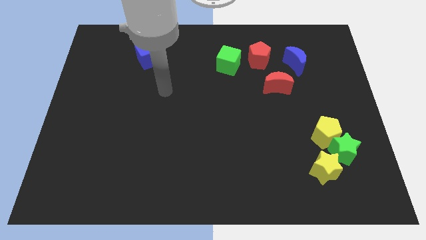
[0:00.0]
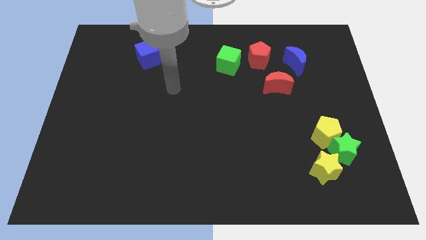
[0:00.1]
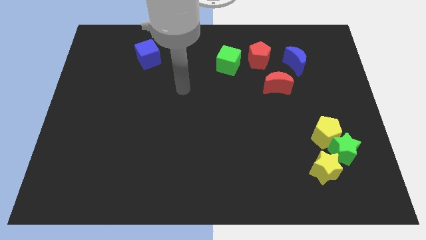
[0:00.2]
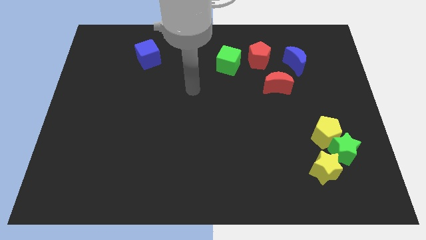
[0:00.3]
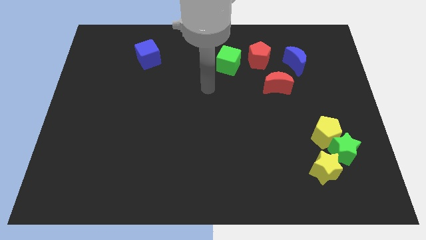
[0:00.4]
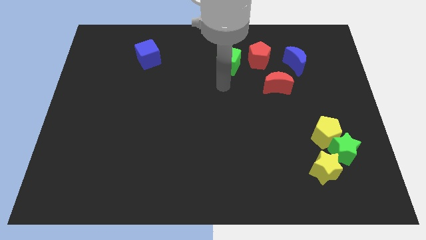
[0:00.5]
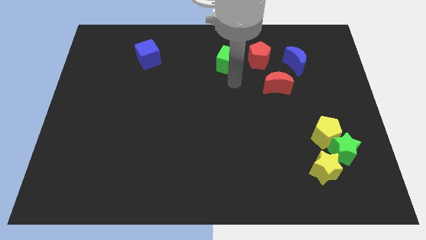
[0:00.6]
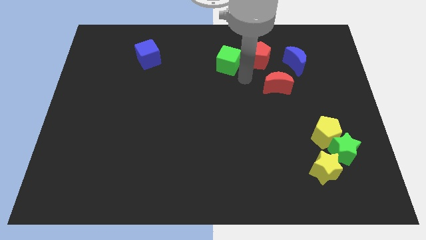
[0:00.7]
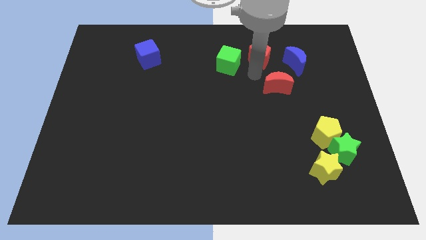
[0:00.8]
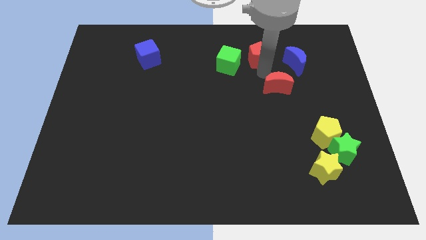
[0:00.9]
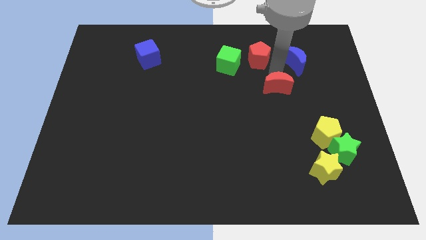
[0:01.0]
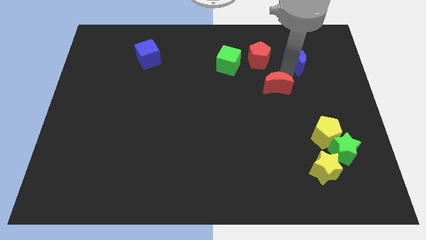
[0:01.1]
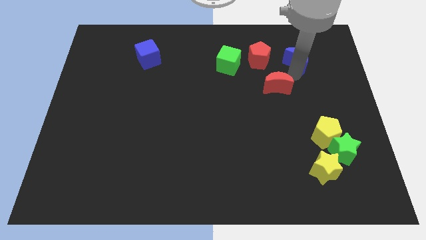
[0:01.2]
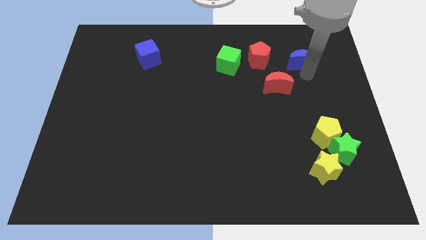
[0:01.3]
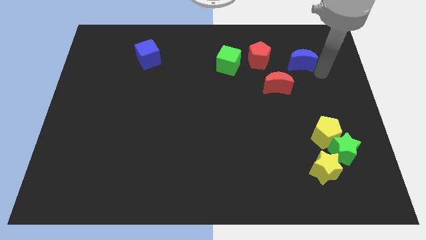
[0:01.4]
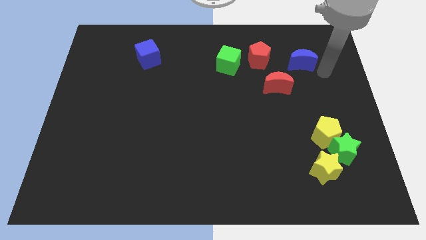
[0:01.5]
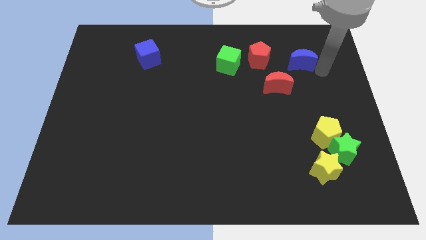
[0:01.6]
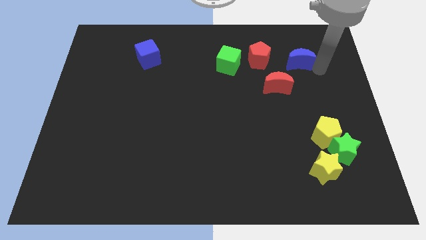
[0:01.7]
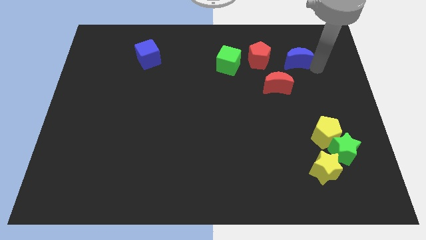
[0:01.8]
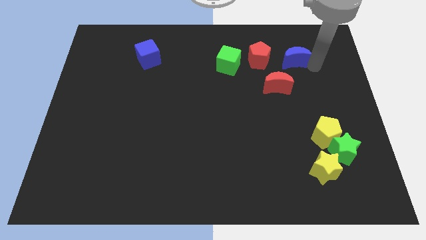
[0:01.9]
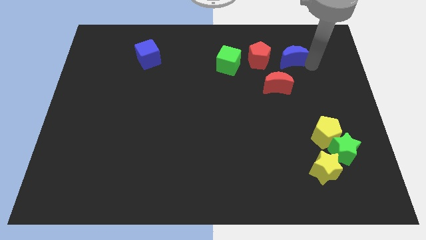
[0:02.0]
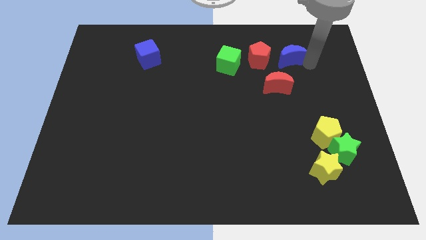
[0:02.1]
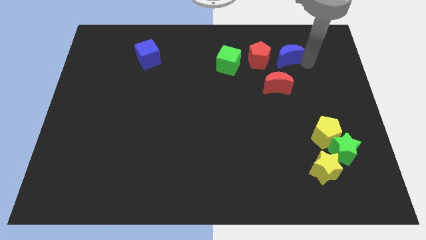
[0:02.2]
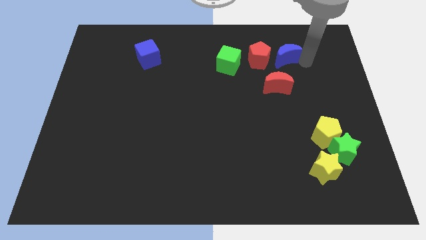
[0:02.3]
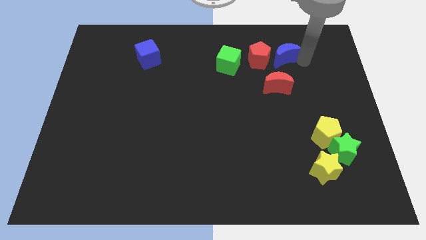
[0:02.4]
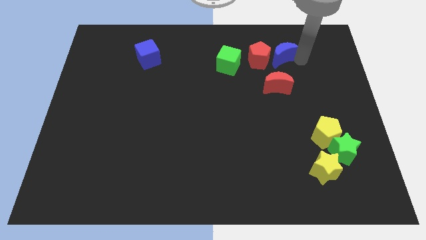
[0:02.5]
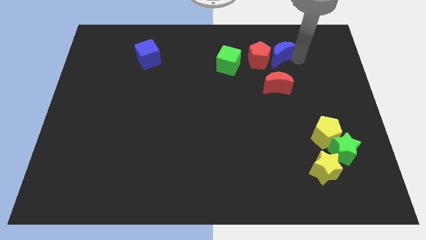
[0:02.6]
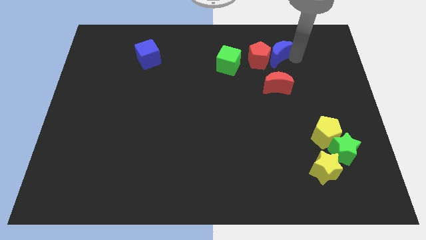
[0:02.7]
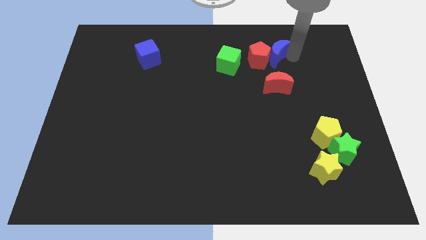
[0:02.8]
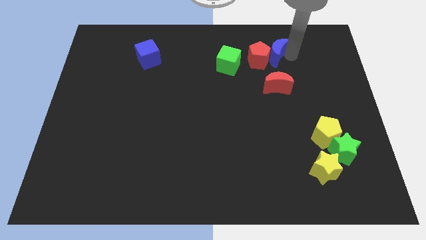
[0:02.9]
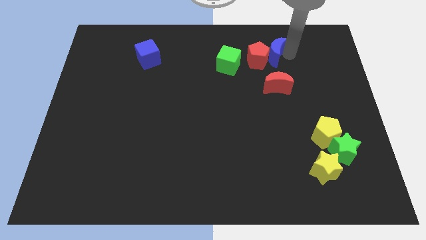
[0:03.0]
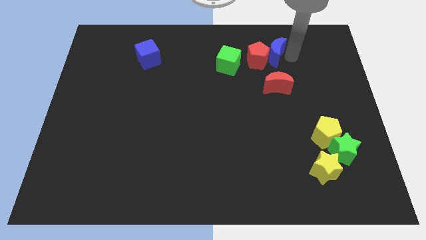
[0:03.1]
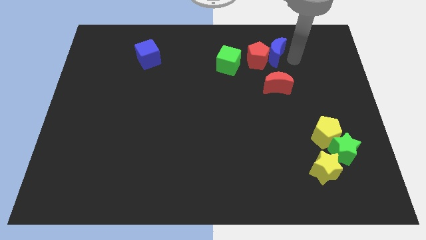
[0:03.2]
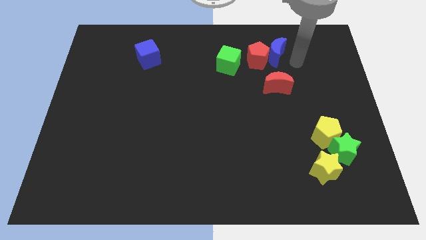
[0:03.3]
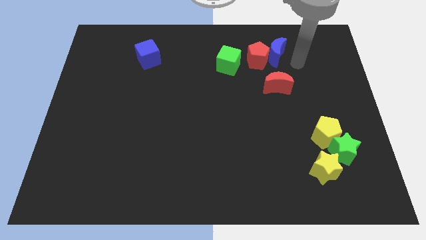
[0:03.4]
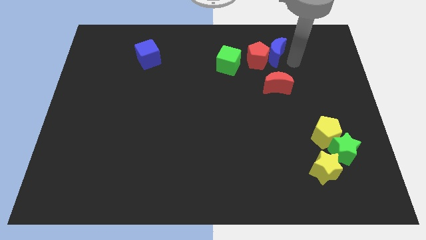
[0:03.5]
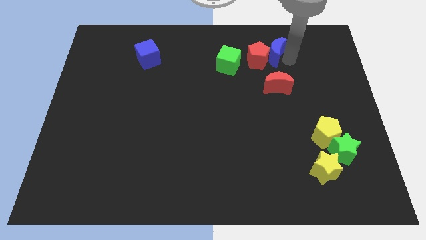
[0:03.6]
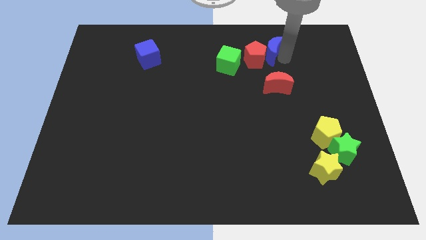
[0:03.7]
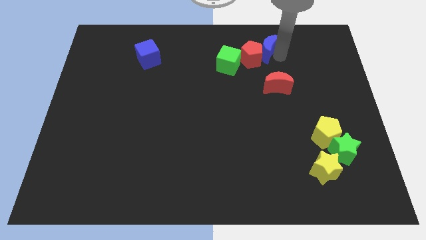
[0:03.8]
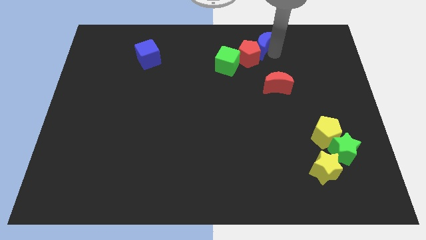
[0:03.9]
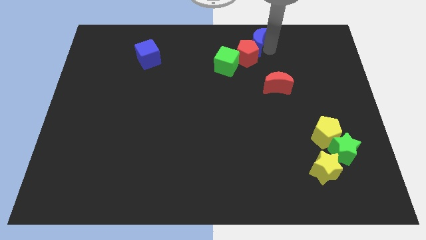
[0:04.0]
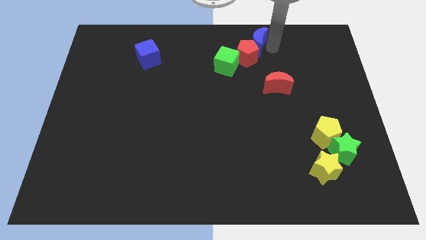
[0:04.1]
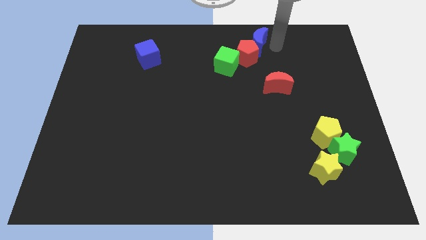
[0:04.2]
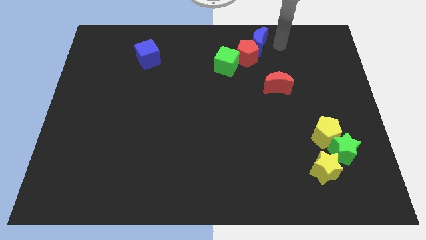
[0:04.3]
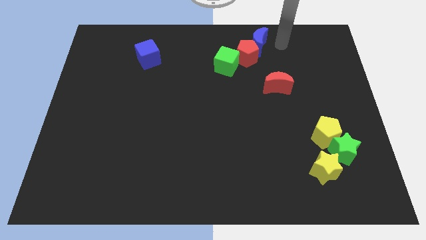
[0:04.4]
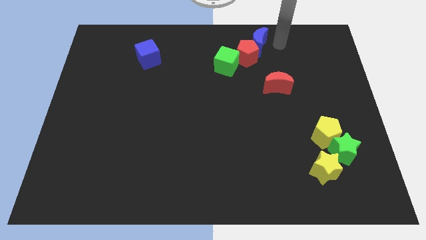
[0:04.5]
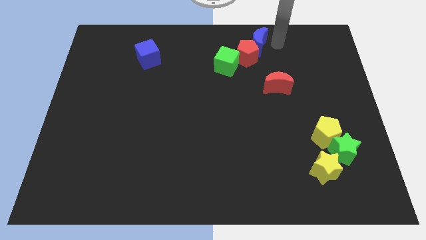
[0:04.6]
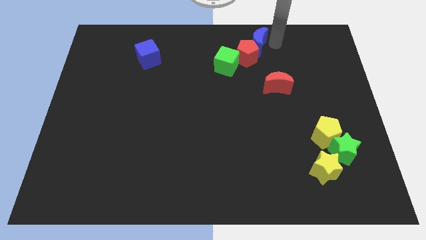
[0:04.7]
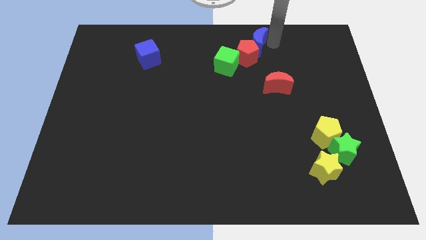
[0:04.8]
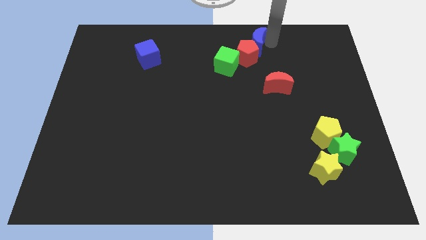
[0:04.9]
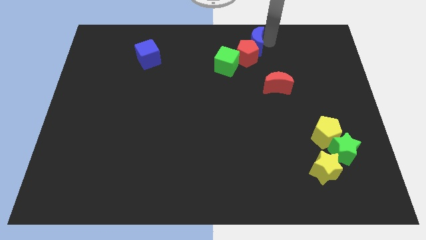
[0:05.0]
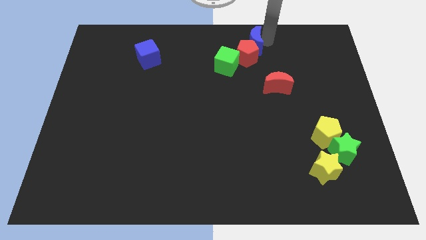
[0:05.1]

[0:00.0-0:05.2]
move the blue moon to the top side

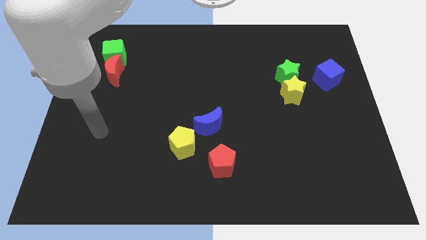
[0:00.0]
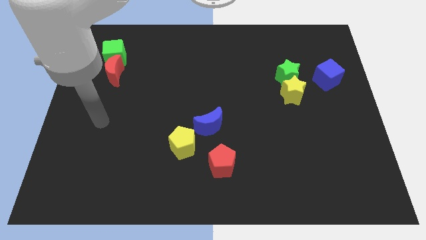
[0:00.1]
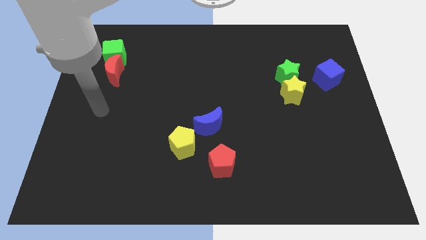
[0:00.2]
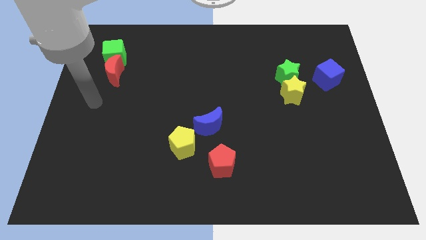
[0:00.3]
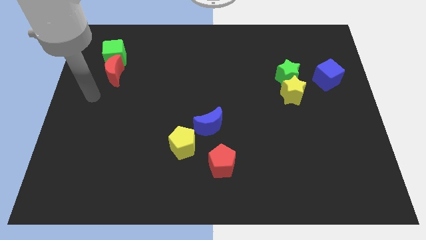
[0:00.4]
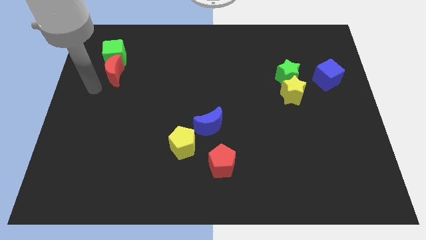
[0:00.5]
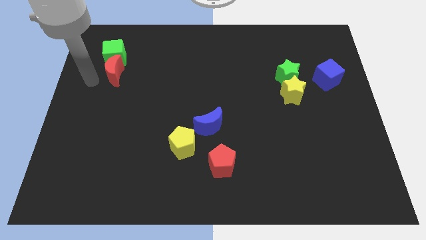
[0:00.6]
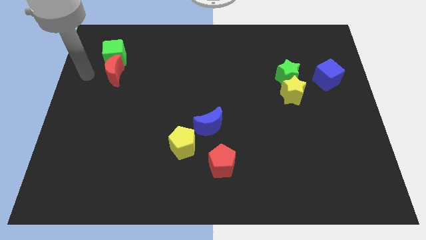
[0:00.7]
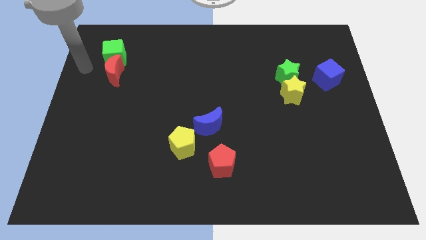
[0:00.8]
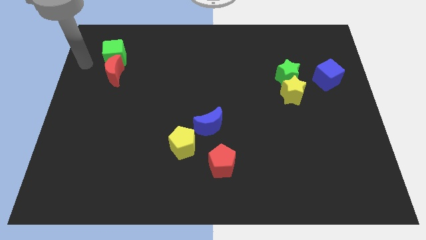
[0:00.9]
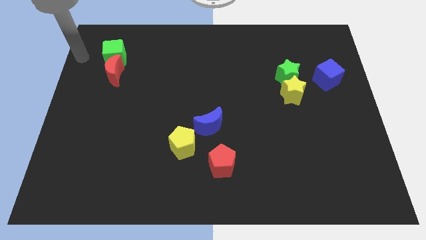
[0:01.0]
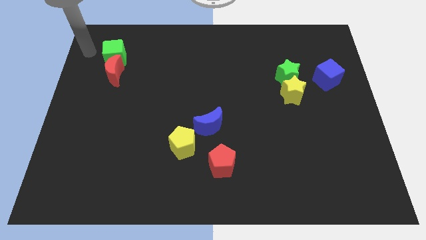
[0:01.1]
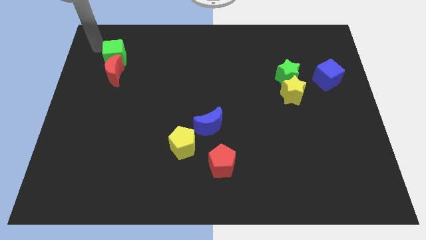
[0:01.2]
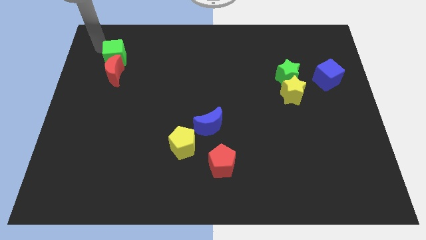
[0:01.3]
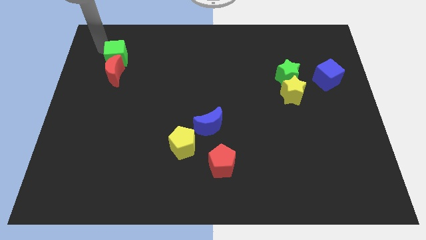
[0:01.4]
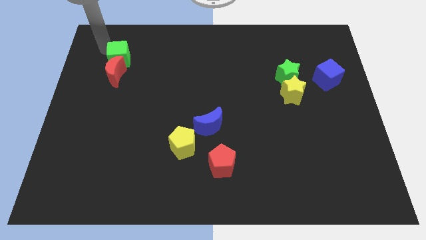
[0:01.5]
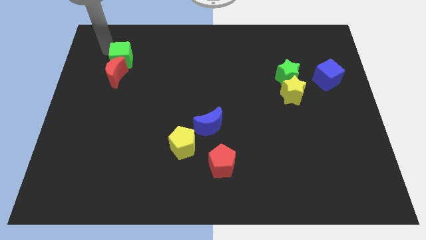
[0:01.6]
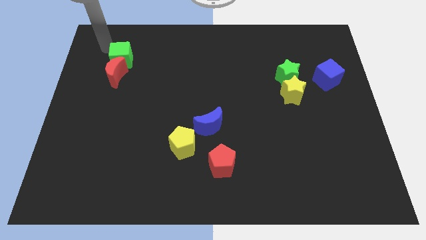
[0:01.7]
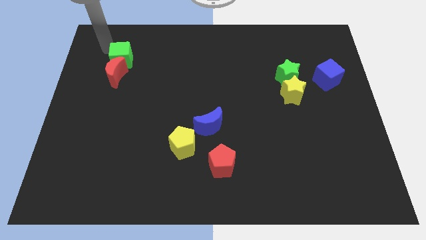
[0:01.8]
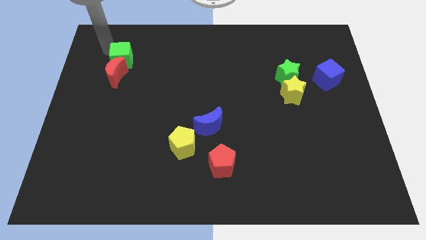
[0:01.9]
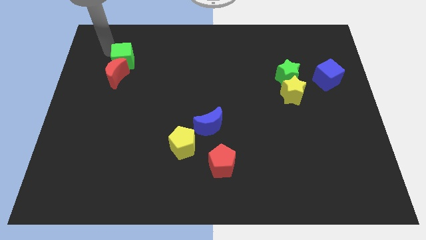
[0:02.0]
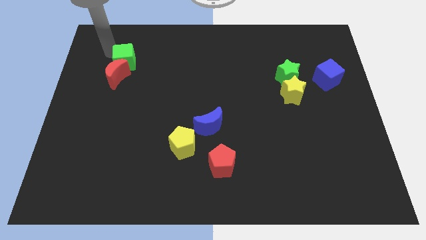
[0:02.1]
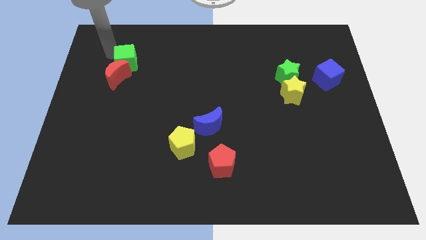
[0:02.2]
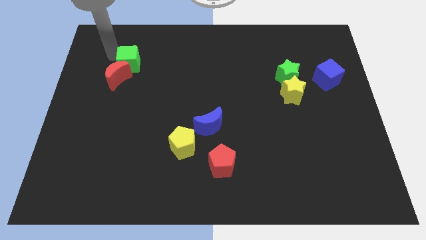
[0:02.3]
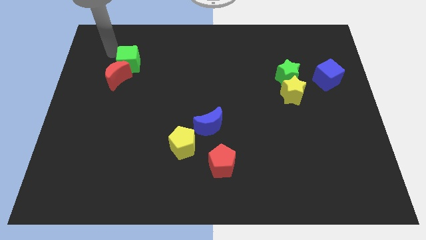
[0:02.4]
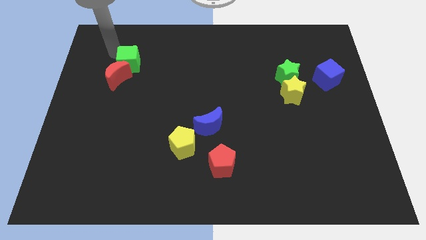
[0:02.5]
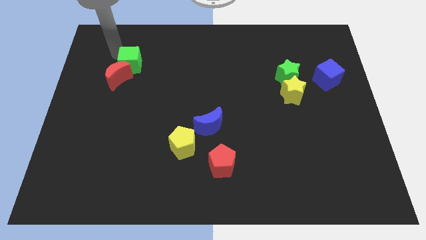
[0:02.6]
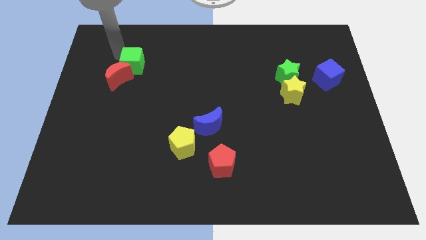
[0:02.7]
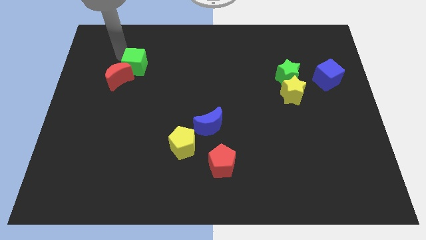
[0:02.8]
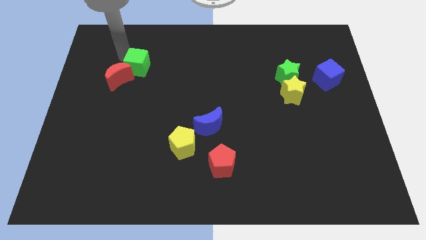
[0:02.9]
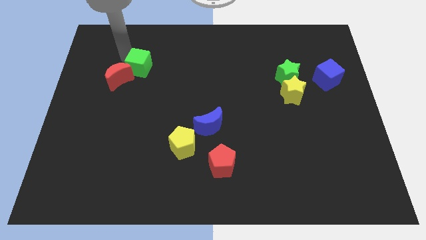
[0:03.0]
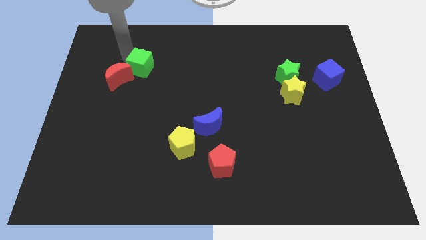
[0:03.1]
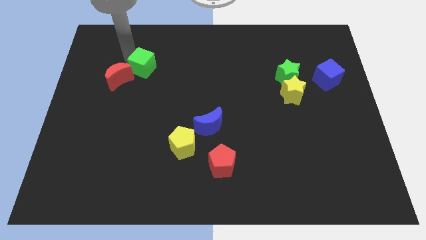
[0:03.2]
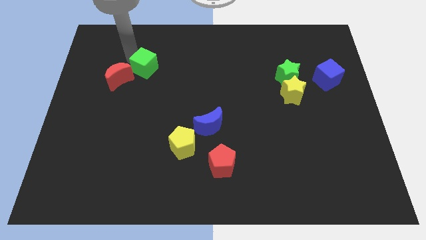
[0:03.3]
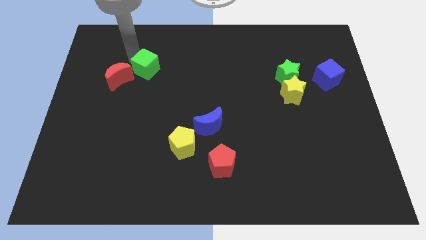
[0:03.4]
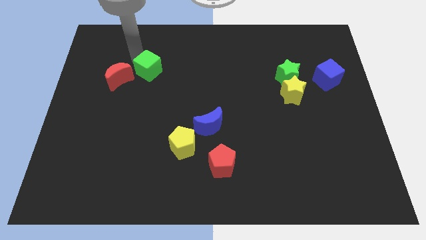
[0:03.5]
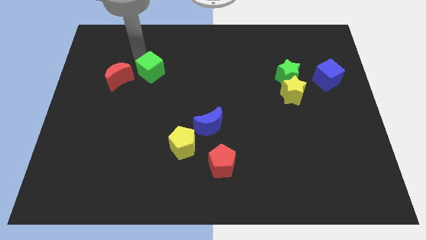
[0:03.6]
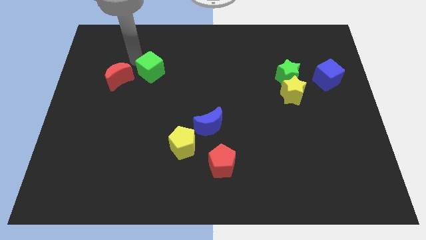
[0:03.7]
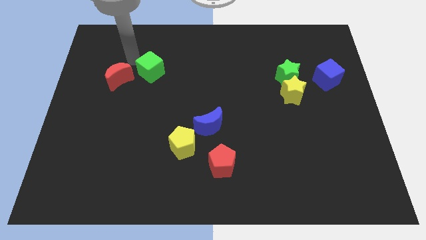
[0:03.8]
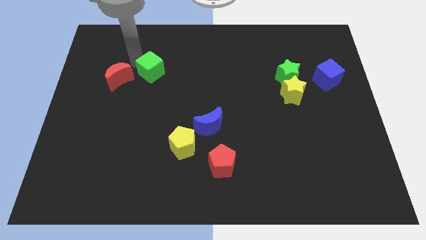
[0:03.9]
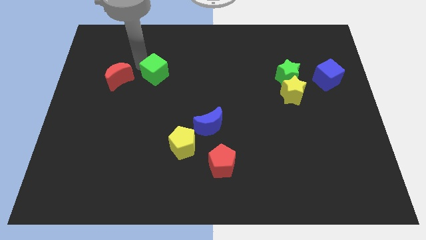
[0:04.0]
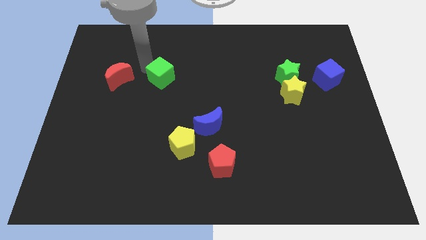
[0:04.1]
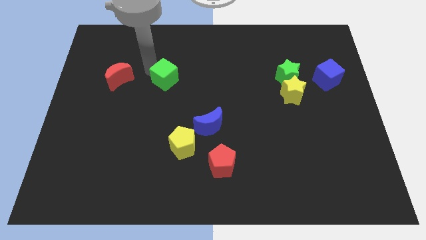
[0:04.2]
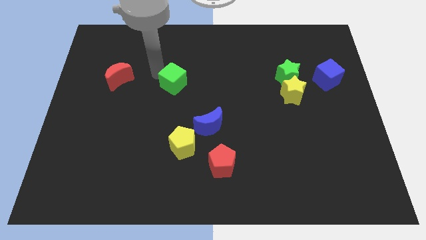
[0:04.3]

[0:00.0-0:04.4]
slide the green cube to the center
